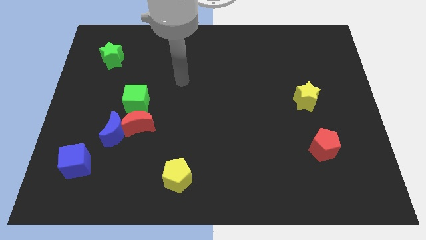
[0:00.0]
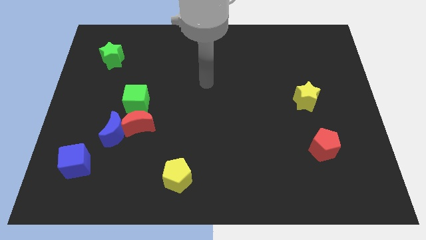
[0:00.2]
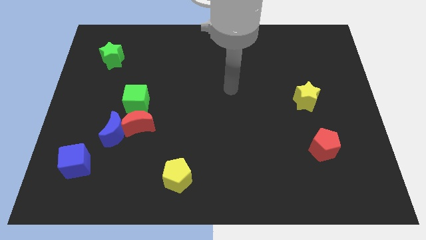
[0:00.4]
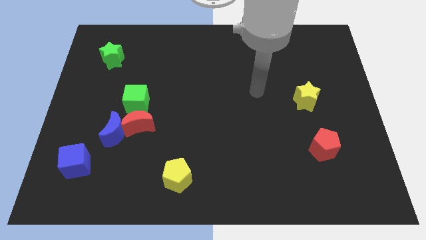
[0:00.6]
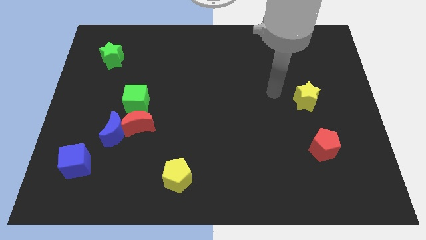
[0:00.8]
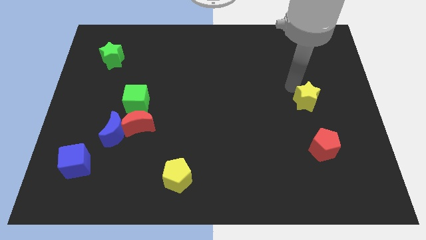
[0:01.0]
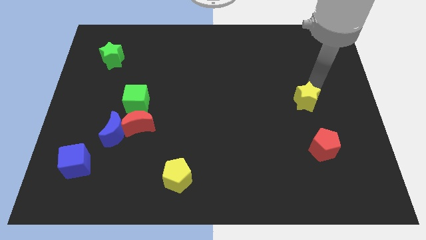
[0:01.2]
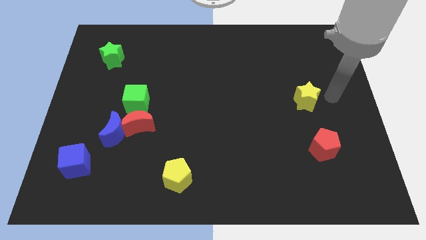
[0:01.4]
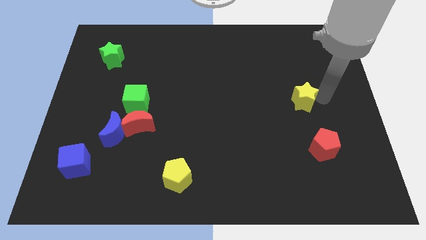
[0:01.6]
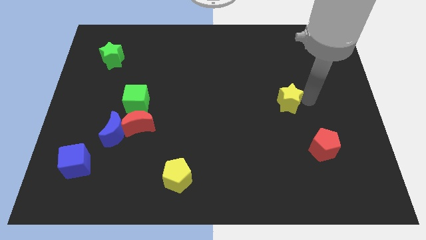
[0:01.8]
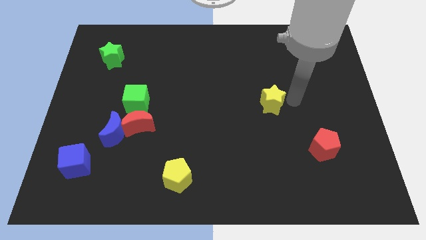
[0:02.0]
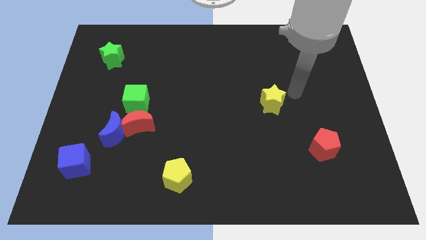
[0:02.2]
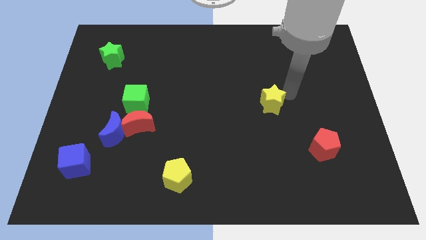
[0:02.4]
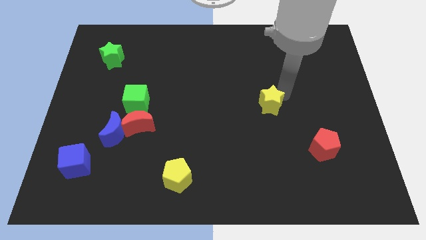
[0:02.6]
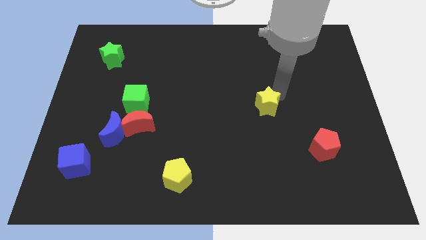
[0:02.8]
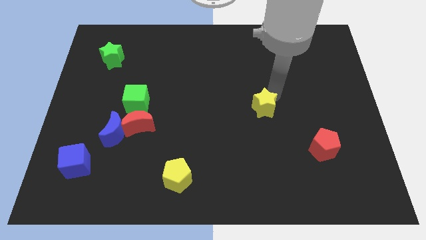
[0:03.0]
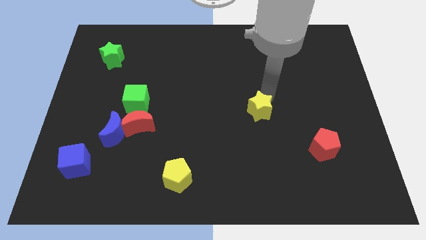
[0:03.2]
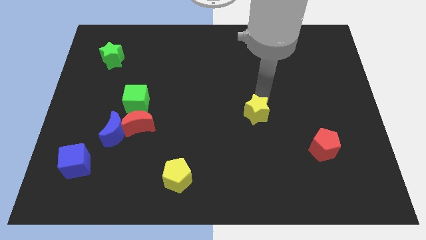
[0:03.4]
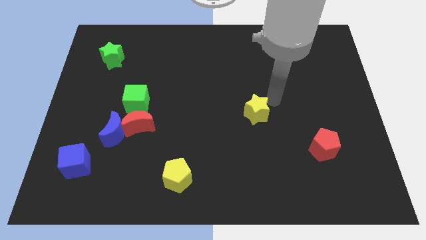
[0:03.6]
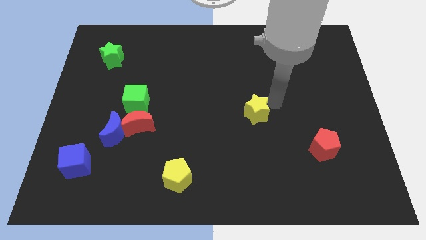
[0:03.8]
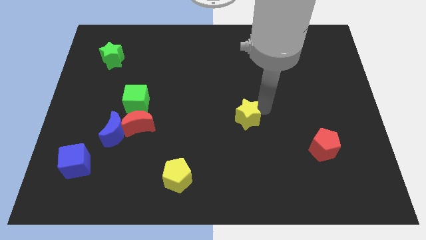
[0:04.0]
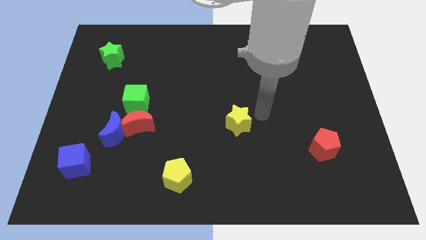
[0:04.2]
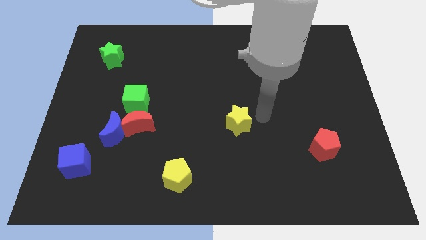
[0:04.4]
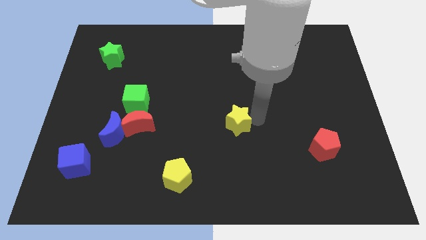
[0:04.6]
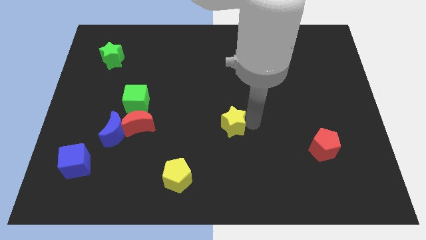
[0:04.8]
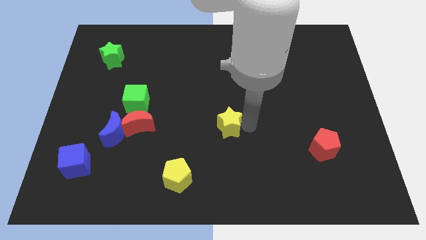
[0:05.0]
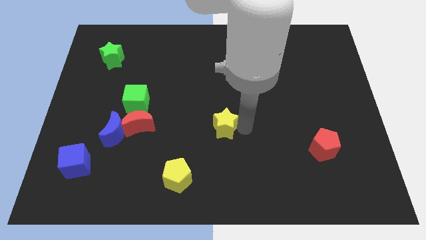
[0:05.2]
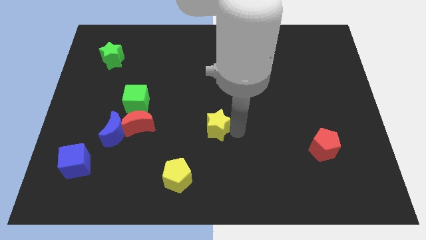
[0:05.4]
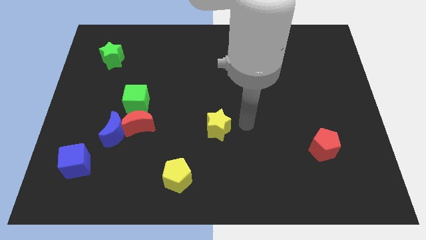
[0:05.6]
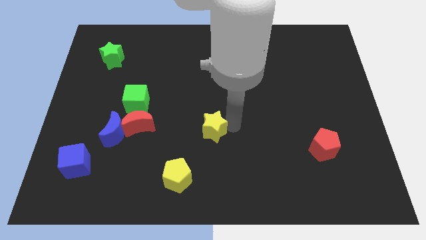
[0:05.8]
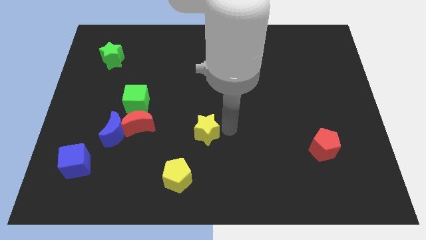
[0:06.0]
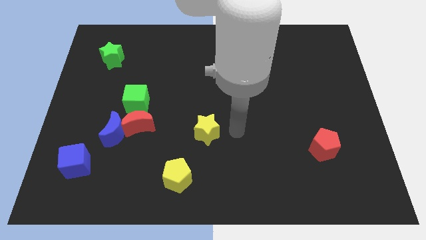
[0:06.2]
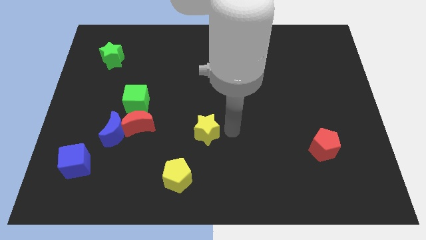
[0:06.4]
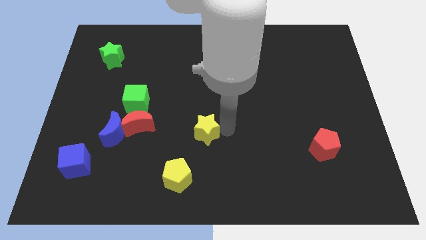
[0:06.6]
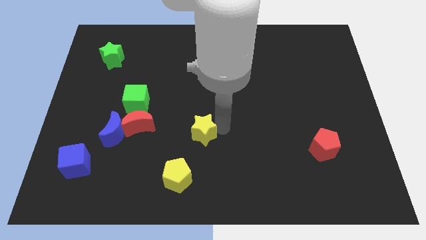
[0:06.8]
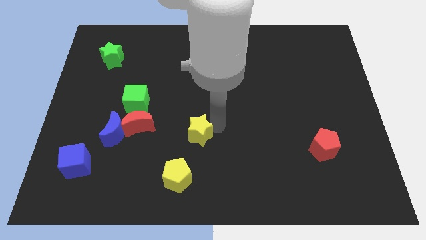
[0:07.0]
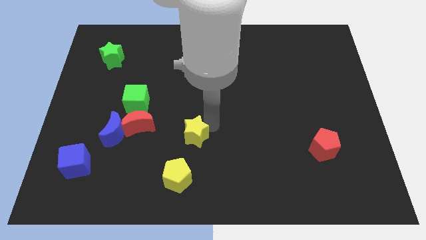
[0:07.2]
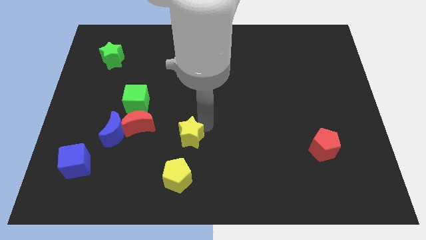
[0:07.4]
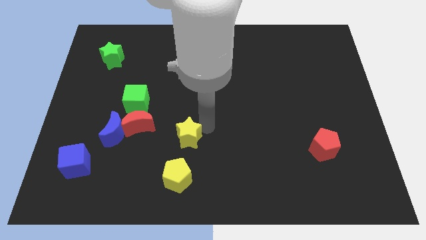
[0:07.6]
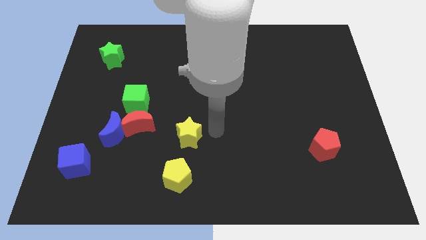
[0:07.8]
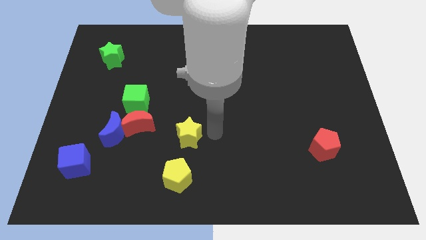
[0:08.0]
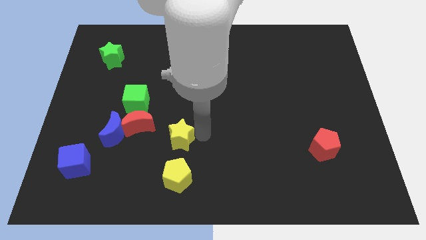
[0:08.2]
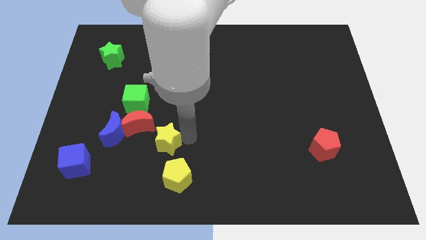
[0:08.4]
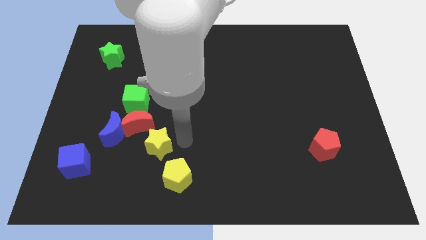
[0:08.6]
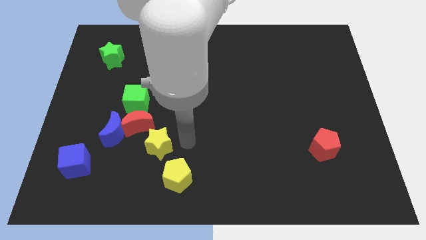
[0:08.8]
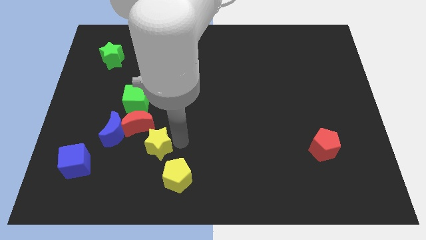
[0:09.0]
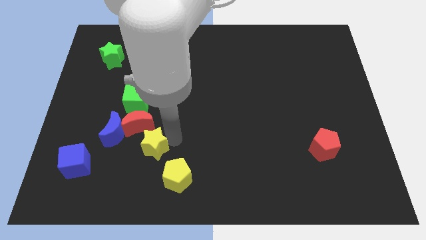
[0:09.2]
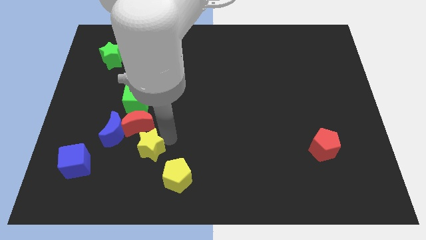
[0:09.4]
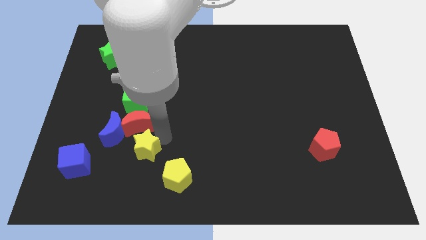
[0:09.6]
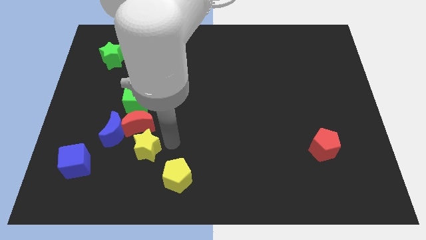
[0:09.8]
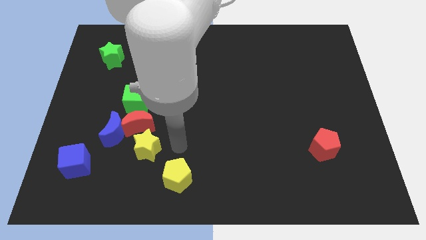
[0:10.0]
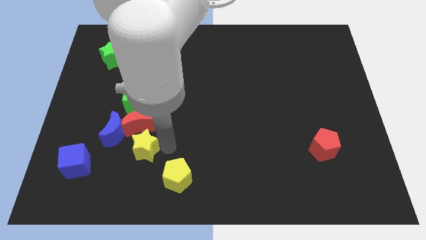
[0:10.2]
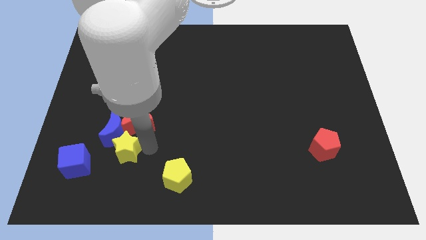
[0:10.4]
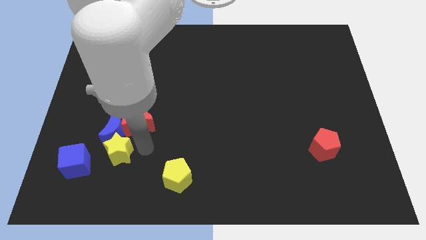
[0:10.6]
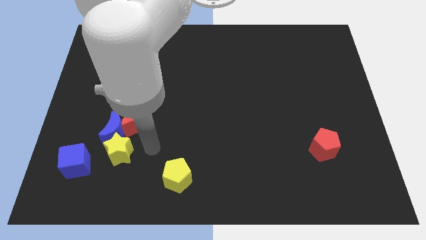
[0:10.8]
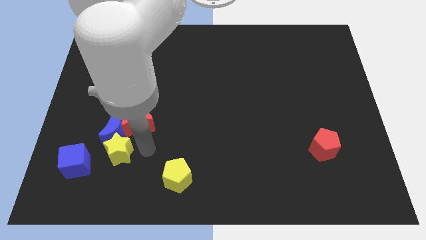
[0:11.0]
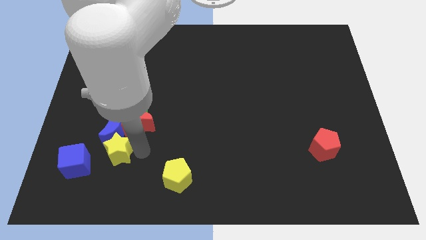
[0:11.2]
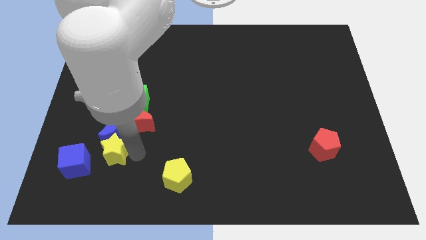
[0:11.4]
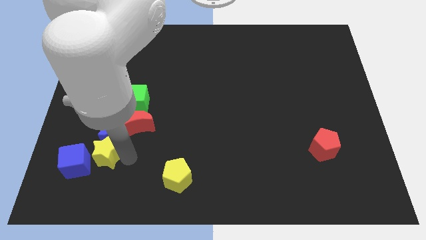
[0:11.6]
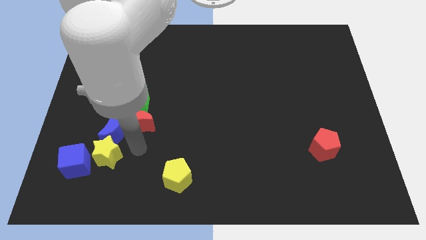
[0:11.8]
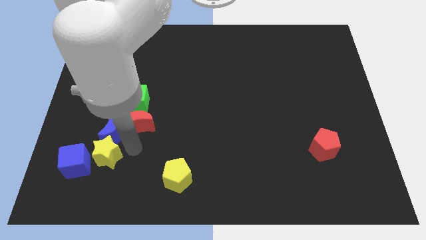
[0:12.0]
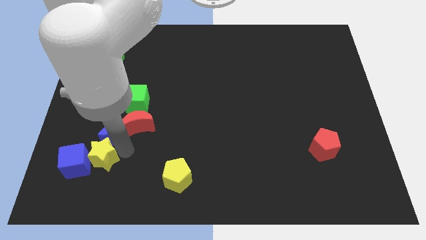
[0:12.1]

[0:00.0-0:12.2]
move the yellow star close to the blue cube

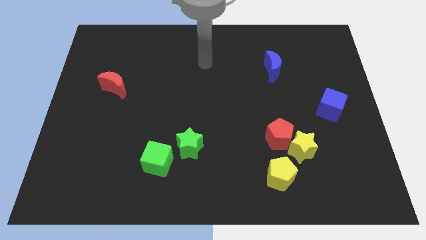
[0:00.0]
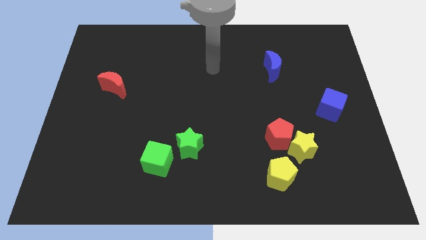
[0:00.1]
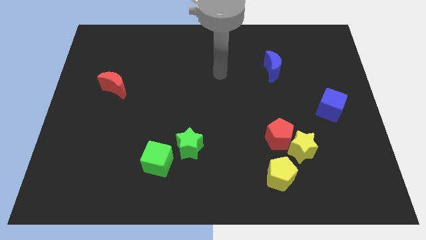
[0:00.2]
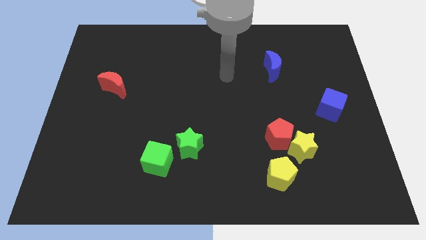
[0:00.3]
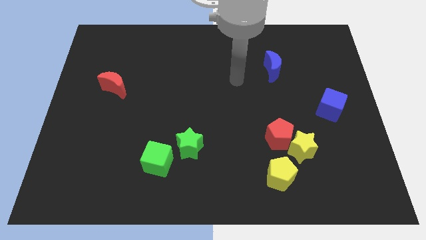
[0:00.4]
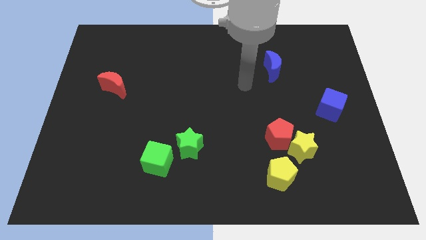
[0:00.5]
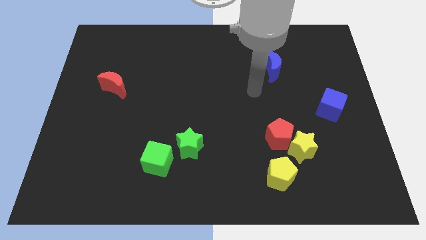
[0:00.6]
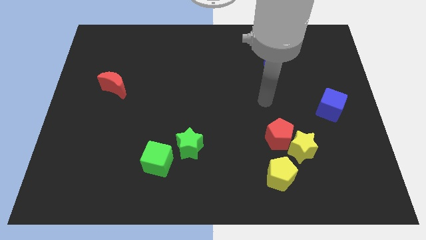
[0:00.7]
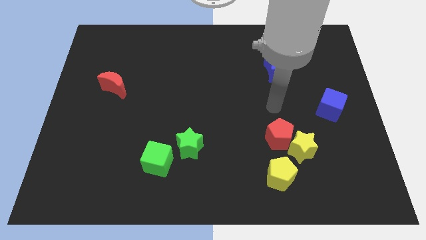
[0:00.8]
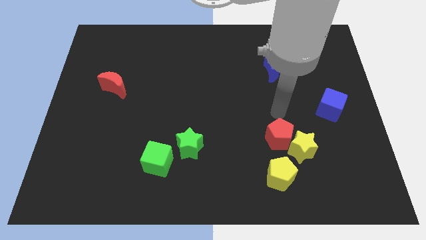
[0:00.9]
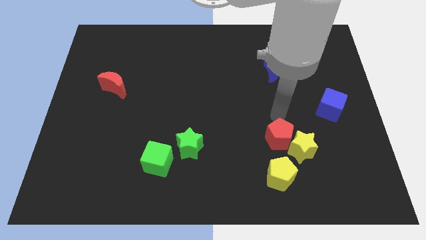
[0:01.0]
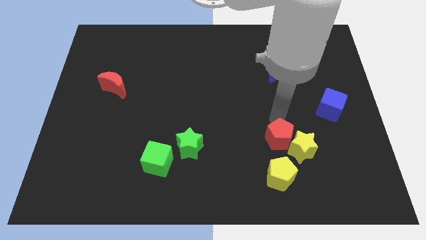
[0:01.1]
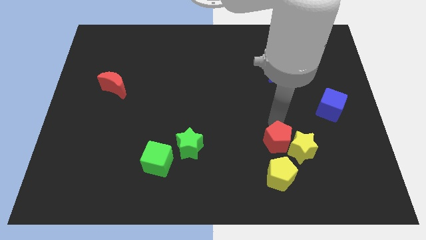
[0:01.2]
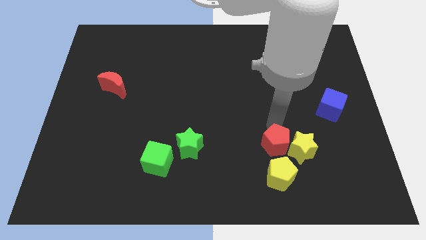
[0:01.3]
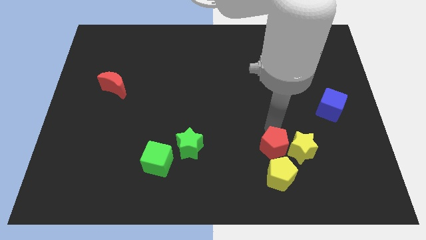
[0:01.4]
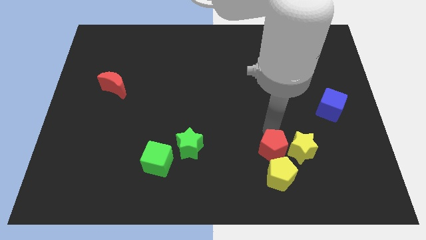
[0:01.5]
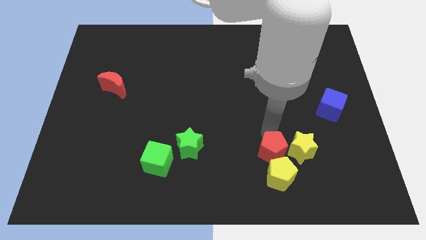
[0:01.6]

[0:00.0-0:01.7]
push the red pentagon next to the yellow pentagon

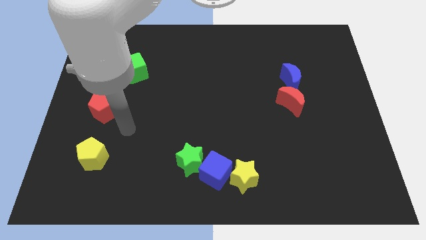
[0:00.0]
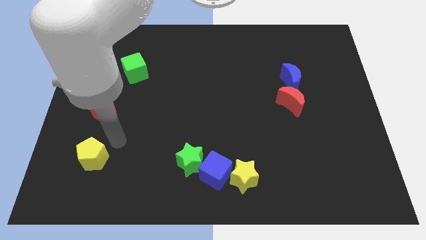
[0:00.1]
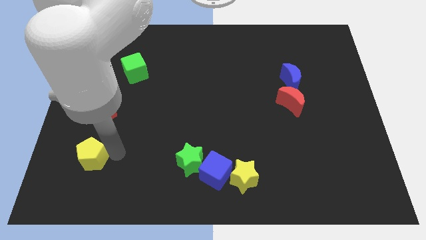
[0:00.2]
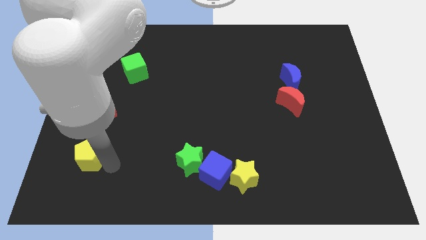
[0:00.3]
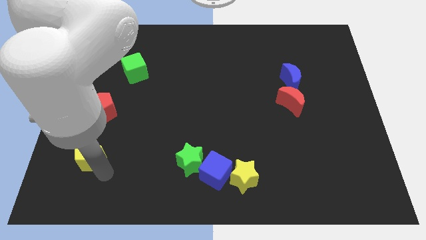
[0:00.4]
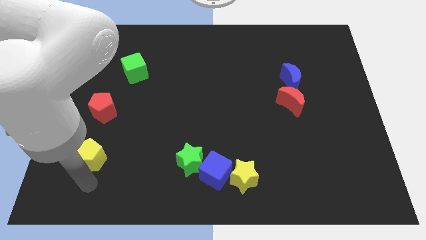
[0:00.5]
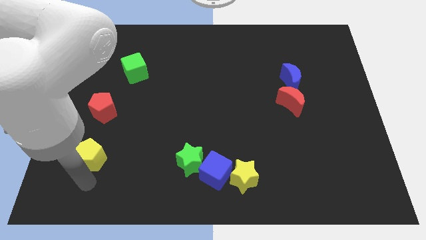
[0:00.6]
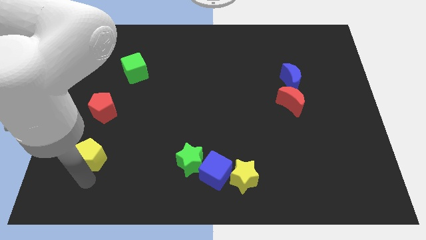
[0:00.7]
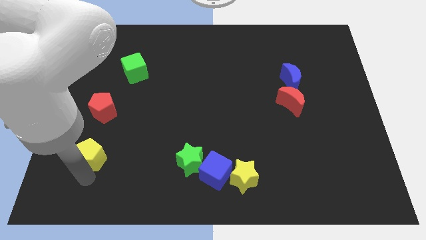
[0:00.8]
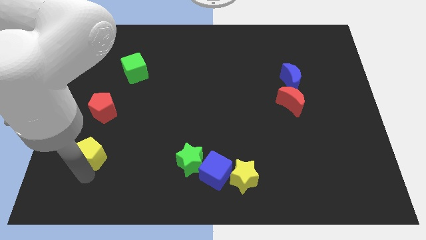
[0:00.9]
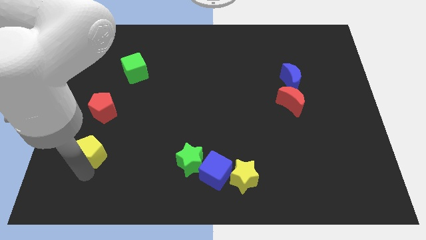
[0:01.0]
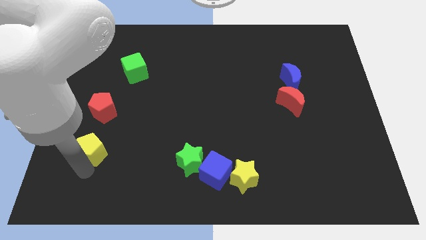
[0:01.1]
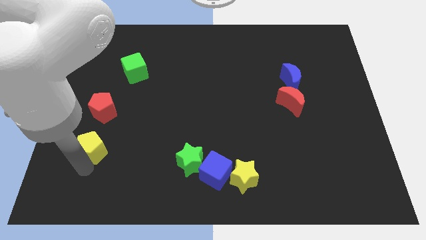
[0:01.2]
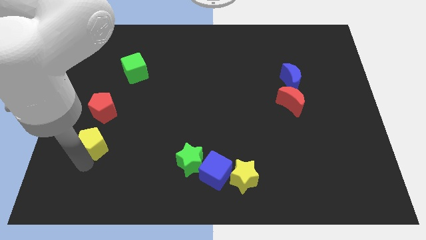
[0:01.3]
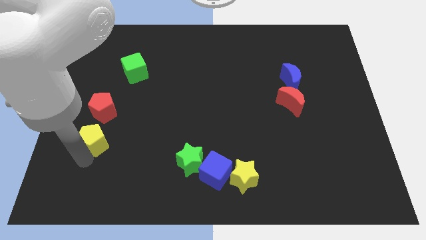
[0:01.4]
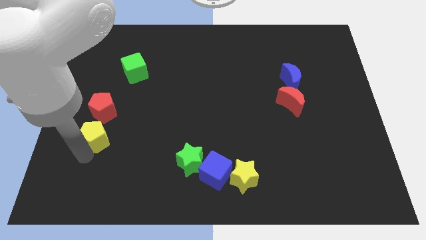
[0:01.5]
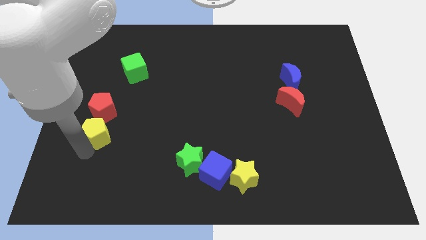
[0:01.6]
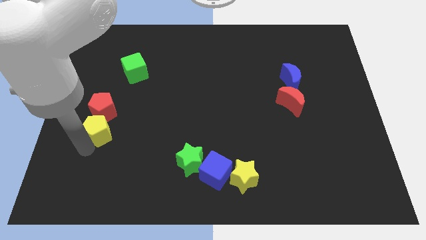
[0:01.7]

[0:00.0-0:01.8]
put the yellow pentagon next to the red pentagon
